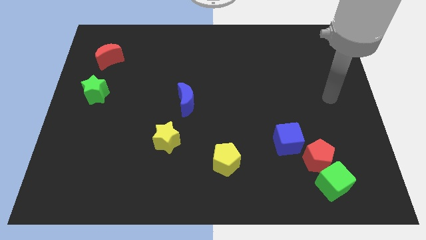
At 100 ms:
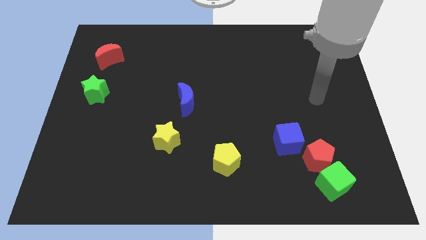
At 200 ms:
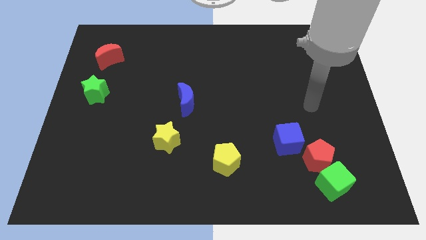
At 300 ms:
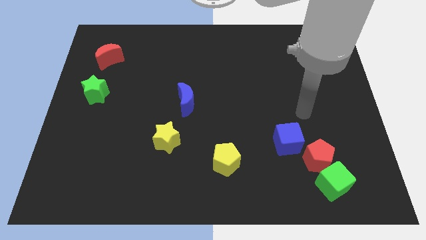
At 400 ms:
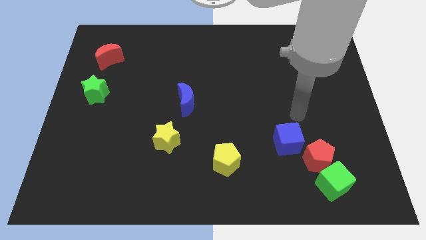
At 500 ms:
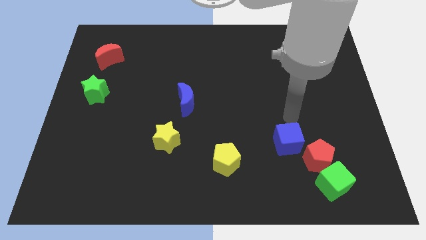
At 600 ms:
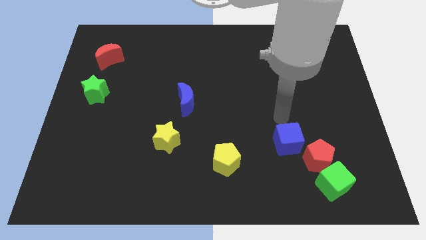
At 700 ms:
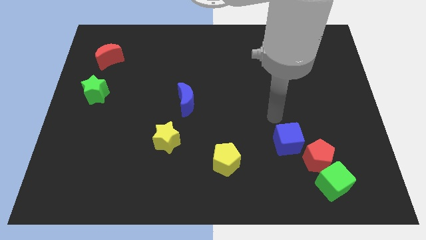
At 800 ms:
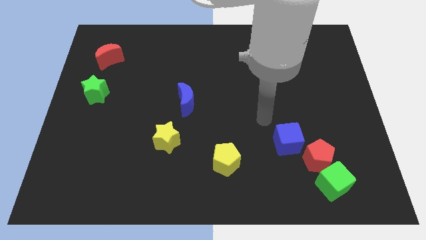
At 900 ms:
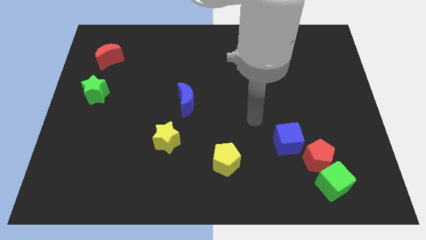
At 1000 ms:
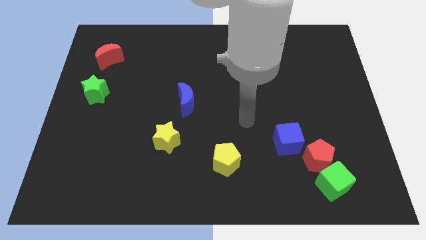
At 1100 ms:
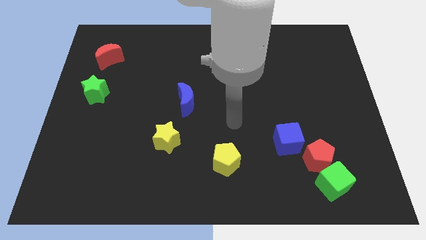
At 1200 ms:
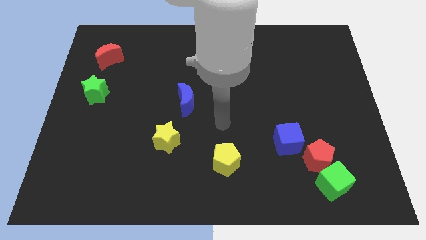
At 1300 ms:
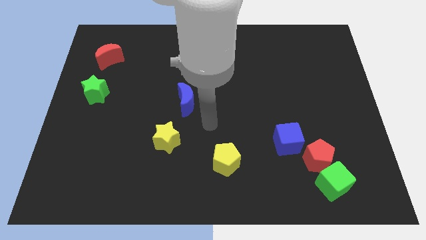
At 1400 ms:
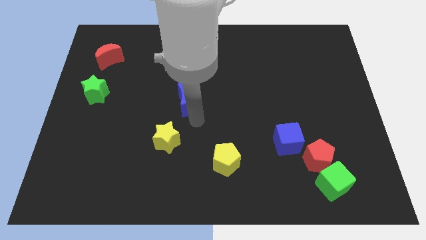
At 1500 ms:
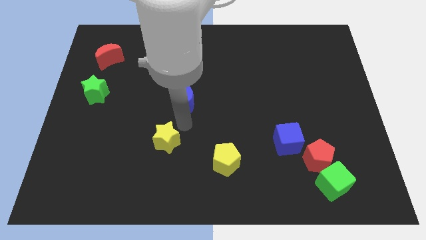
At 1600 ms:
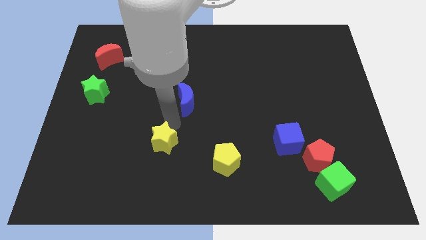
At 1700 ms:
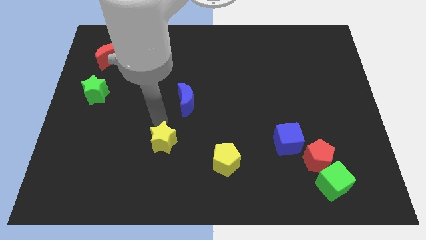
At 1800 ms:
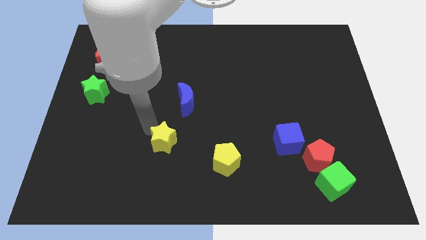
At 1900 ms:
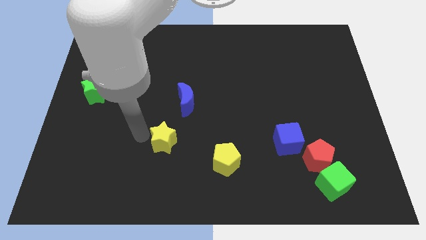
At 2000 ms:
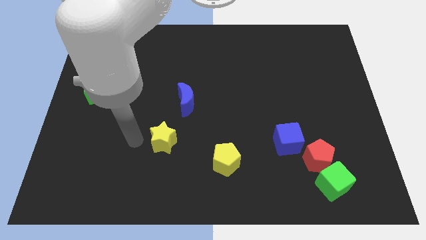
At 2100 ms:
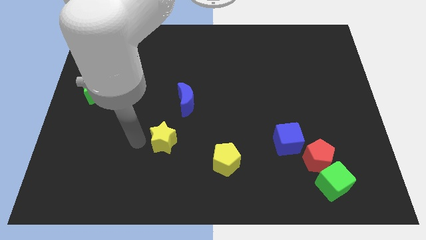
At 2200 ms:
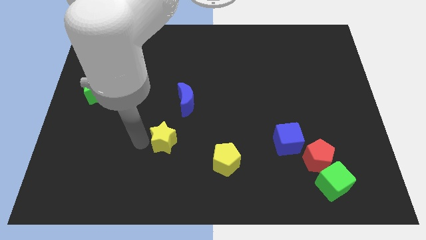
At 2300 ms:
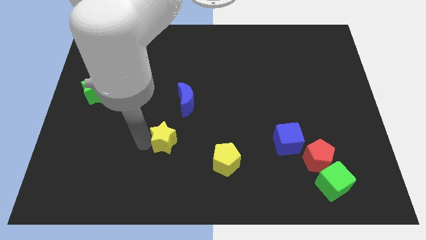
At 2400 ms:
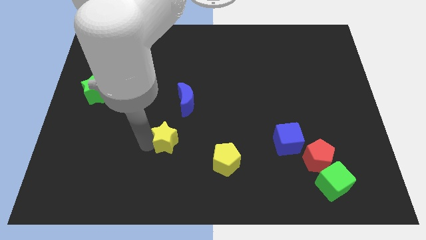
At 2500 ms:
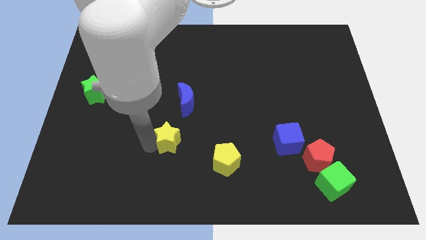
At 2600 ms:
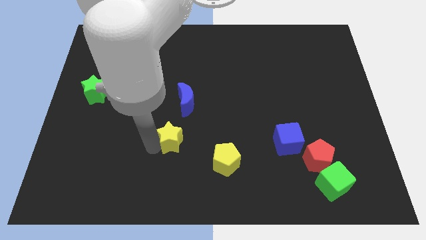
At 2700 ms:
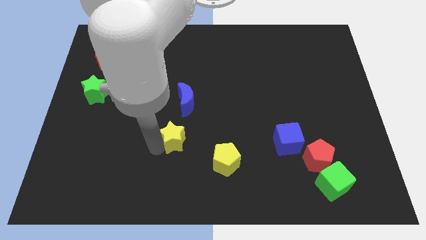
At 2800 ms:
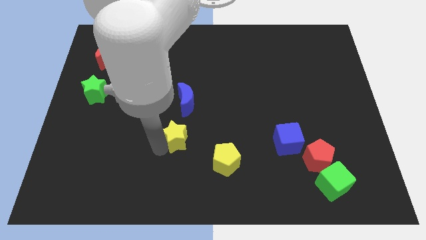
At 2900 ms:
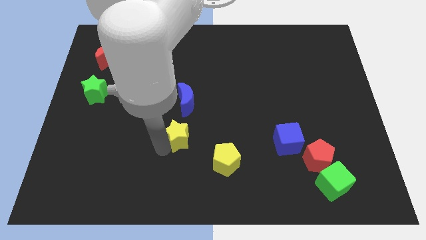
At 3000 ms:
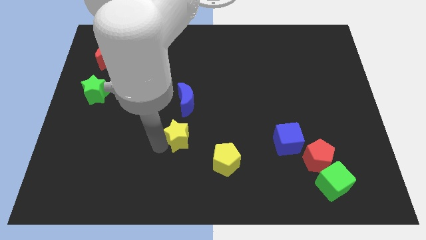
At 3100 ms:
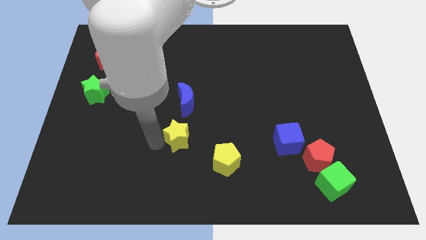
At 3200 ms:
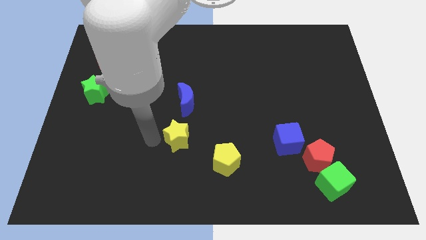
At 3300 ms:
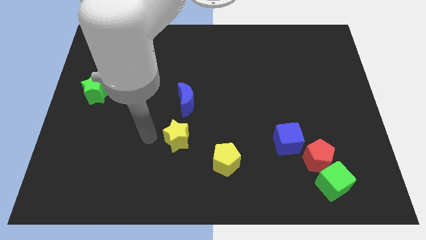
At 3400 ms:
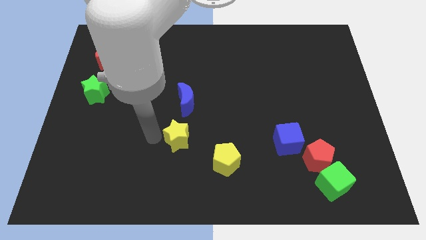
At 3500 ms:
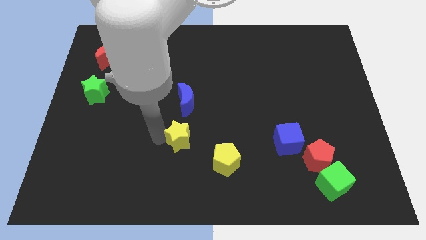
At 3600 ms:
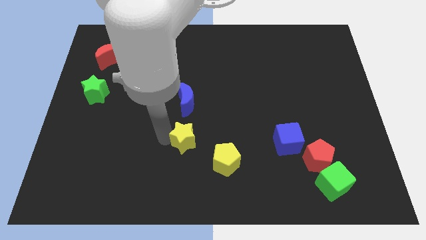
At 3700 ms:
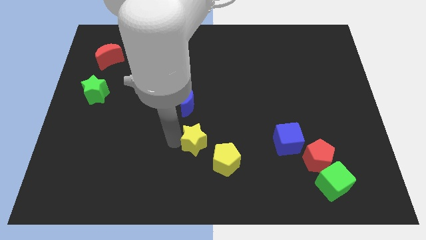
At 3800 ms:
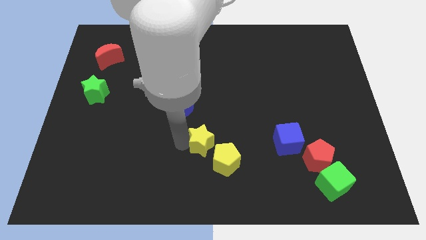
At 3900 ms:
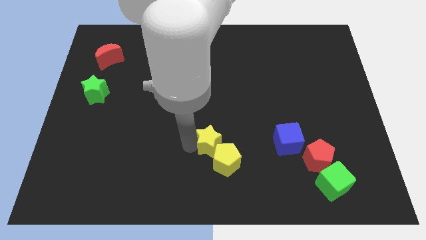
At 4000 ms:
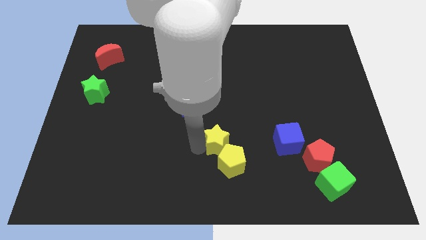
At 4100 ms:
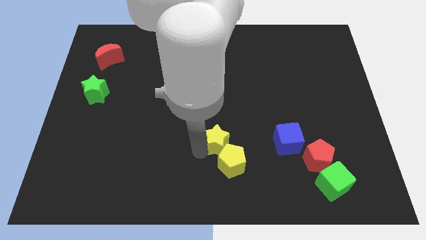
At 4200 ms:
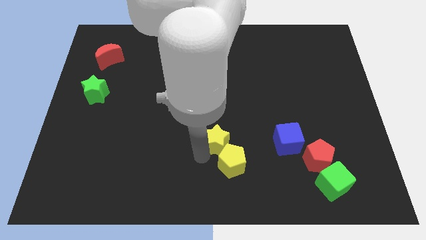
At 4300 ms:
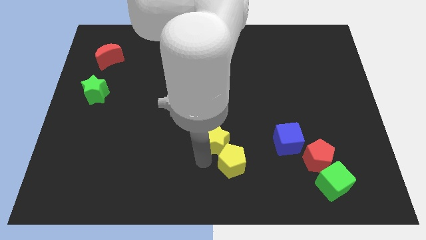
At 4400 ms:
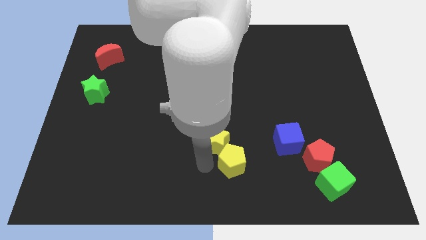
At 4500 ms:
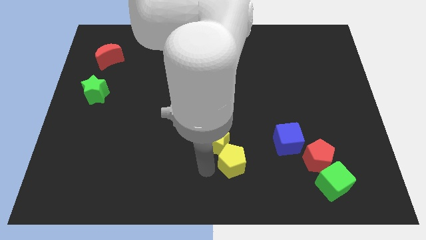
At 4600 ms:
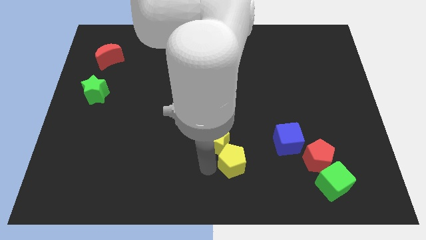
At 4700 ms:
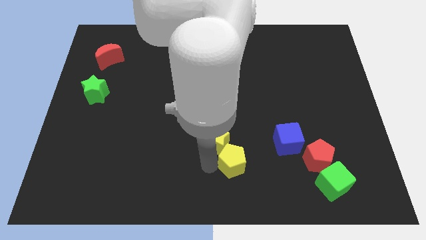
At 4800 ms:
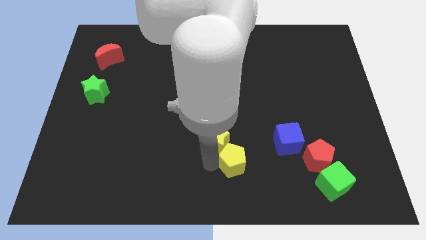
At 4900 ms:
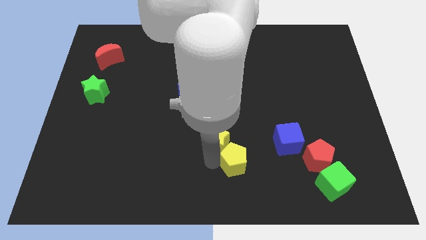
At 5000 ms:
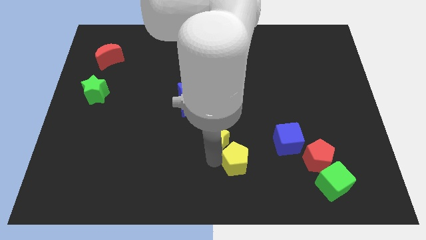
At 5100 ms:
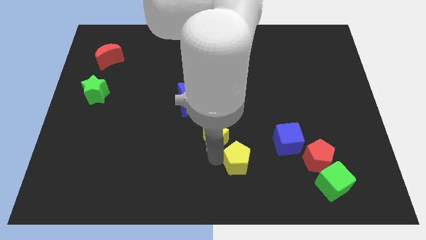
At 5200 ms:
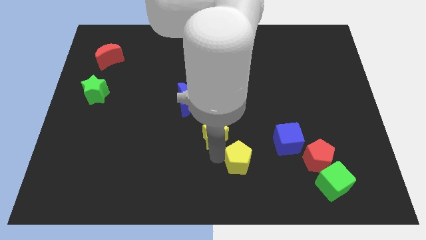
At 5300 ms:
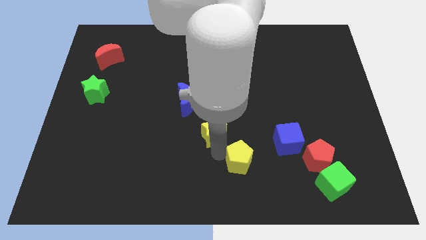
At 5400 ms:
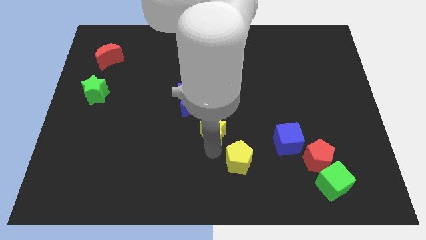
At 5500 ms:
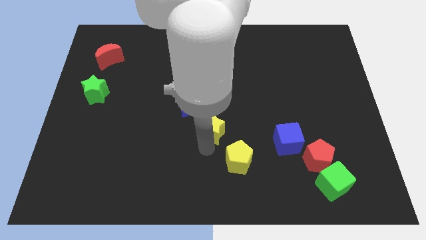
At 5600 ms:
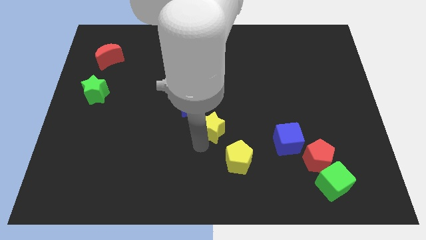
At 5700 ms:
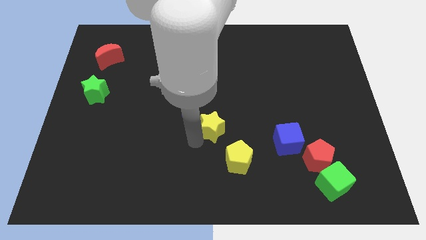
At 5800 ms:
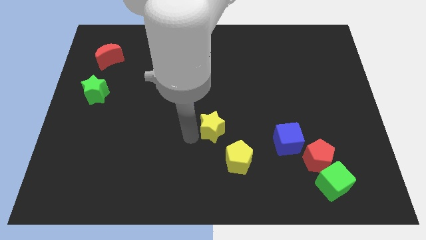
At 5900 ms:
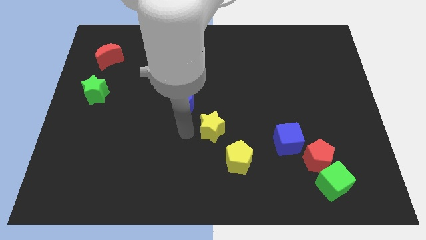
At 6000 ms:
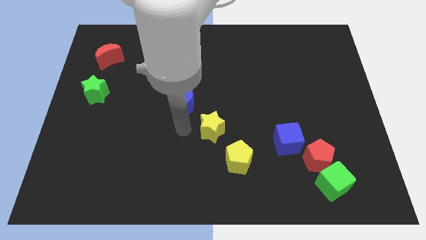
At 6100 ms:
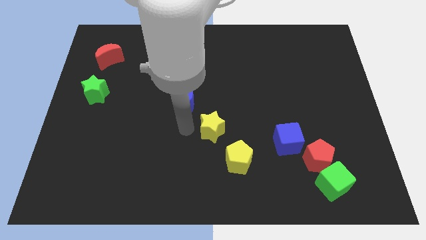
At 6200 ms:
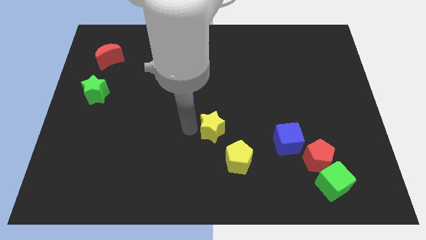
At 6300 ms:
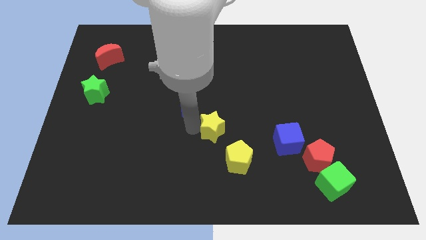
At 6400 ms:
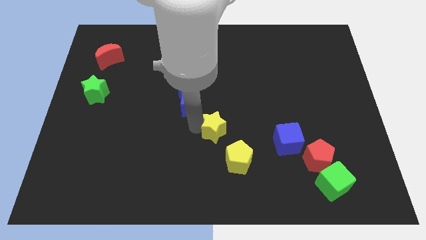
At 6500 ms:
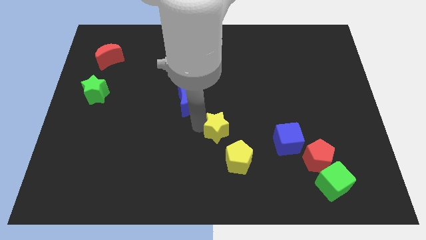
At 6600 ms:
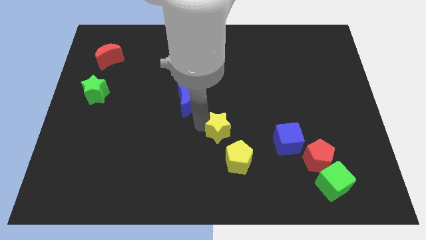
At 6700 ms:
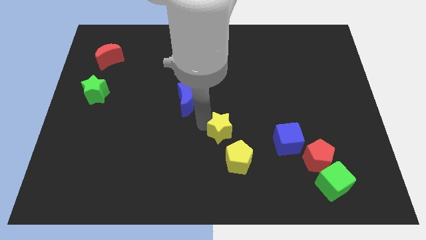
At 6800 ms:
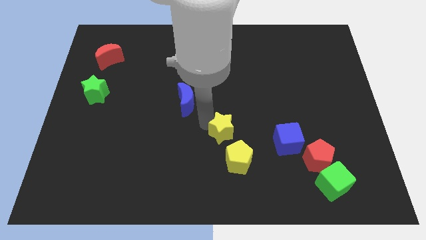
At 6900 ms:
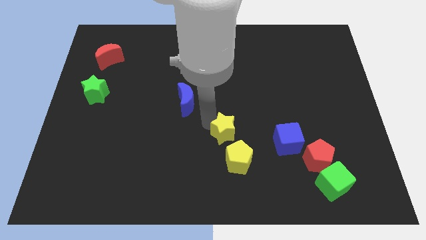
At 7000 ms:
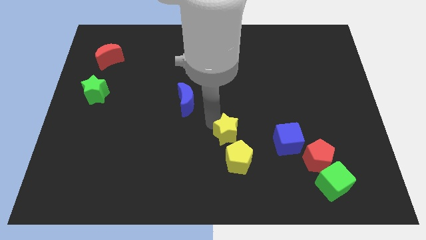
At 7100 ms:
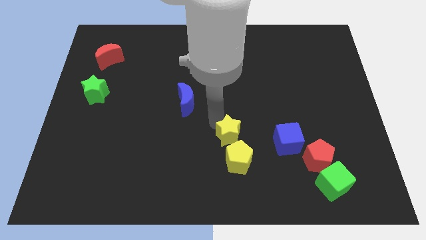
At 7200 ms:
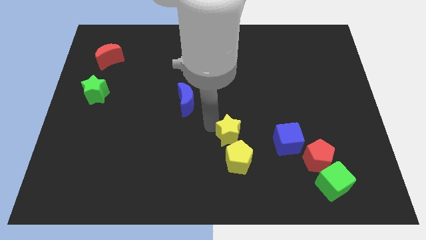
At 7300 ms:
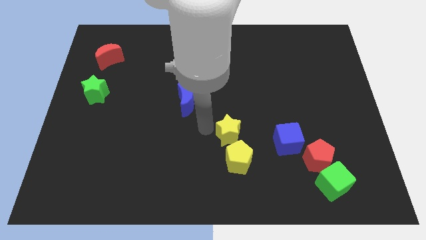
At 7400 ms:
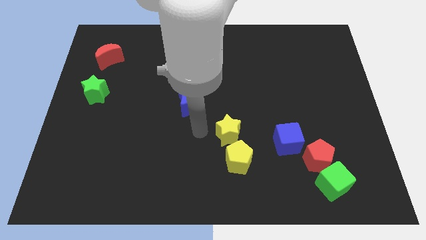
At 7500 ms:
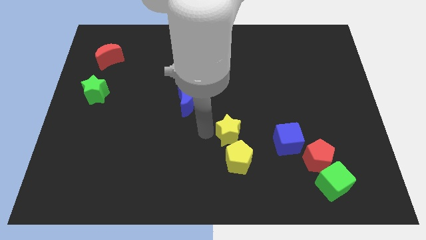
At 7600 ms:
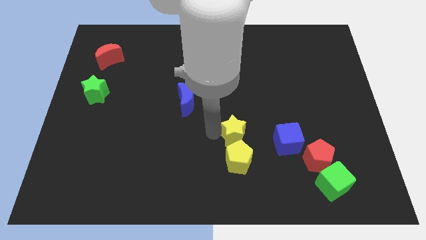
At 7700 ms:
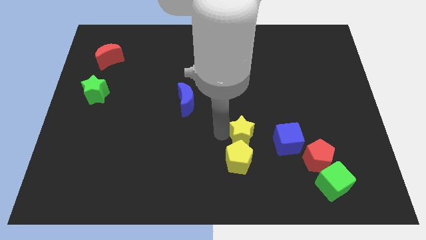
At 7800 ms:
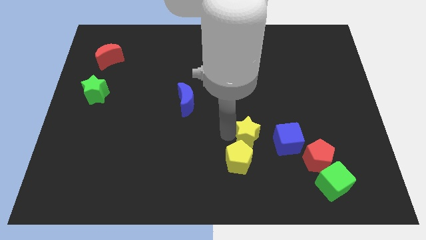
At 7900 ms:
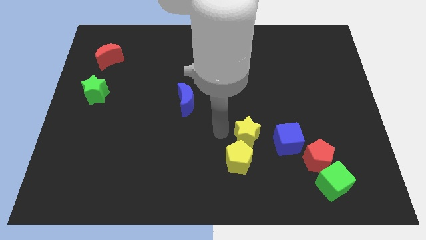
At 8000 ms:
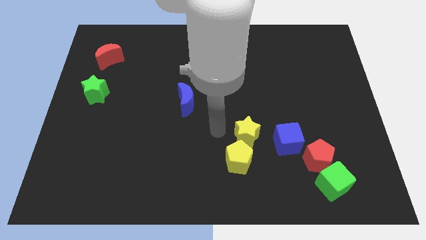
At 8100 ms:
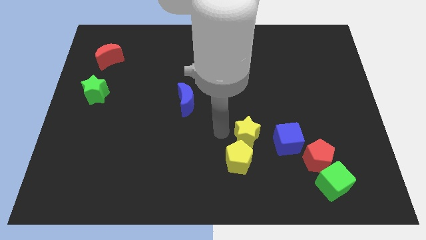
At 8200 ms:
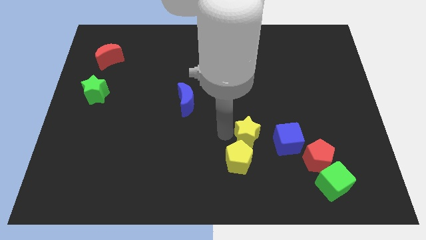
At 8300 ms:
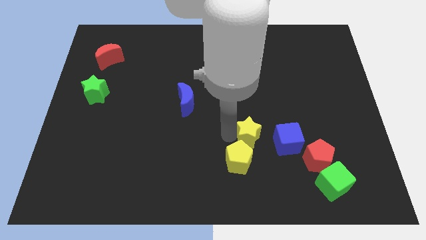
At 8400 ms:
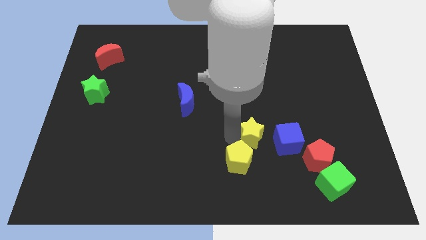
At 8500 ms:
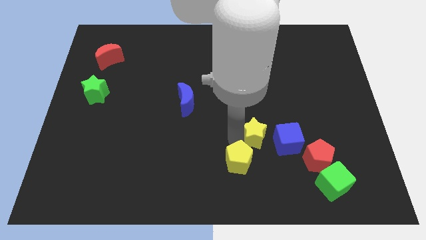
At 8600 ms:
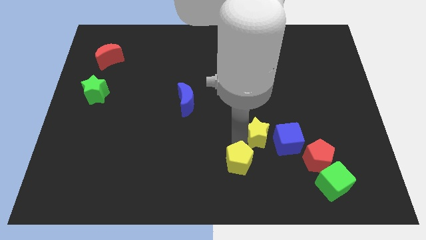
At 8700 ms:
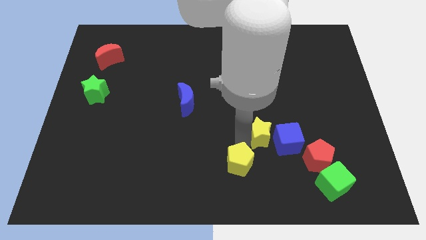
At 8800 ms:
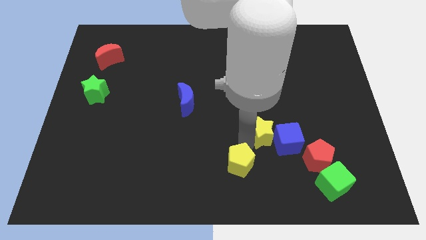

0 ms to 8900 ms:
push the yellow star next to the blue cube
